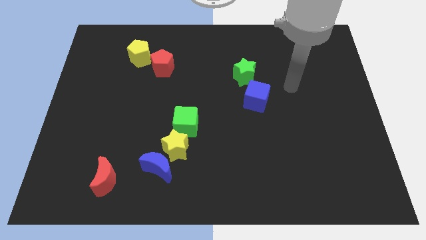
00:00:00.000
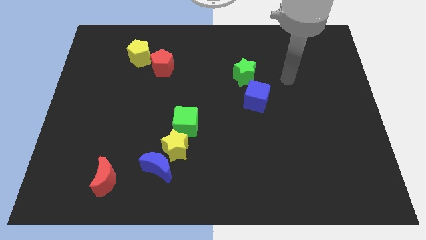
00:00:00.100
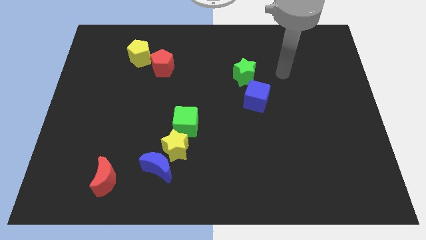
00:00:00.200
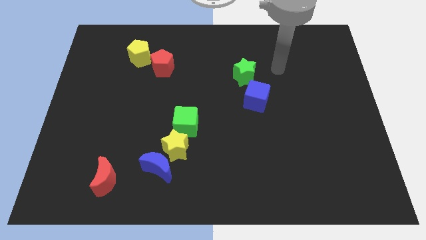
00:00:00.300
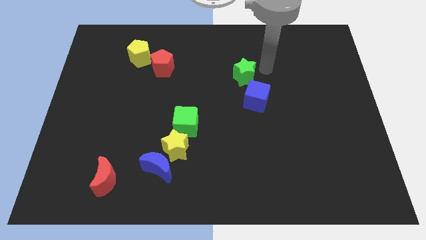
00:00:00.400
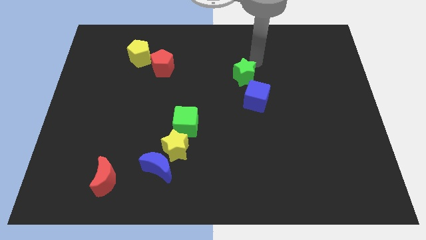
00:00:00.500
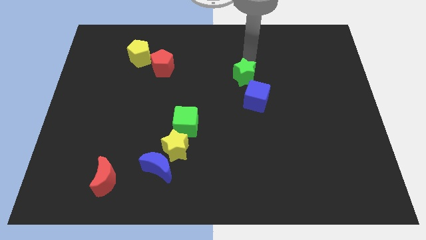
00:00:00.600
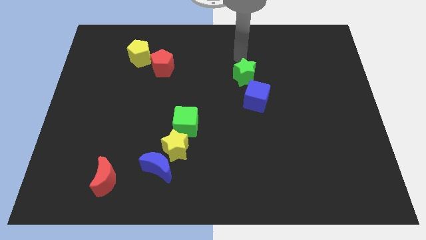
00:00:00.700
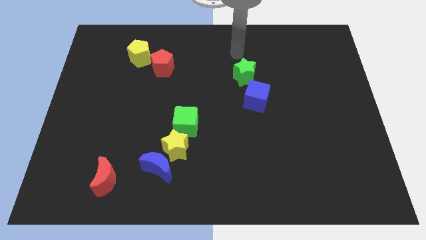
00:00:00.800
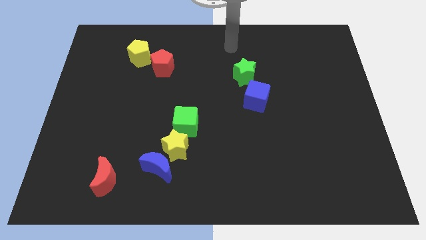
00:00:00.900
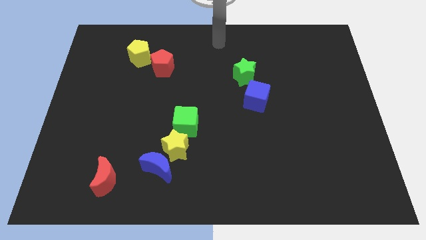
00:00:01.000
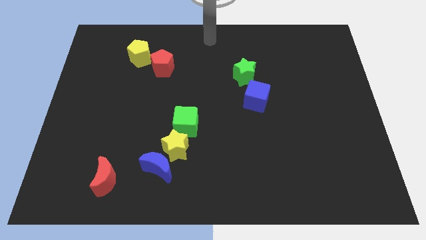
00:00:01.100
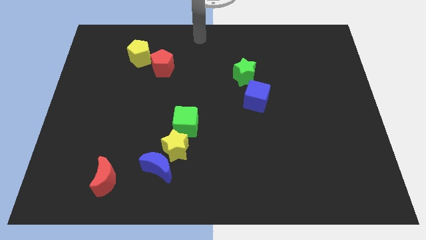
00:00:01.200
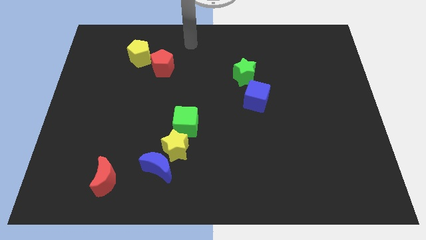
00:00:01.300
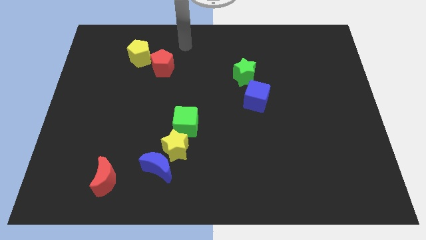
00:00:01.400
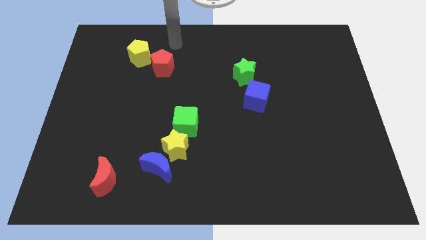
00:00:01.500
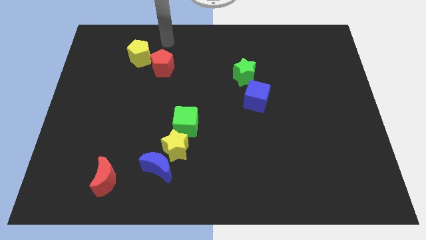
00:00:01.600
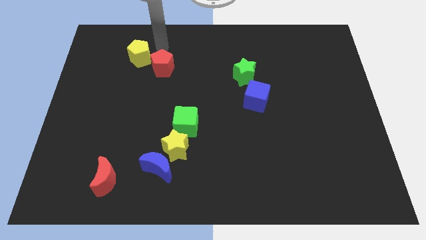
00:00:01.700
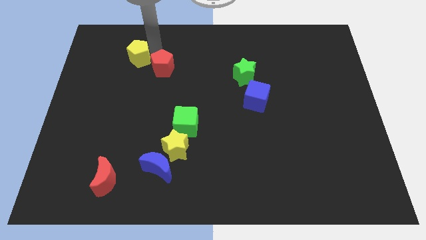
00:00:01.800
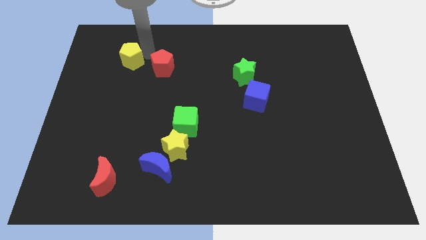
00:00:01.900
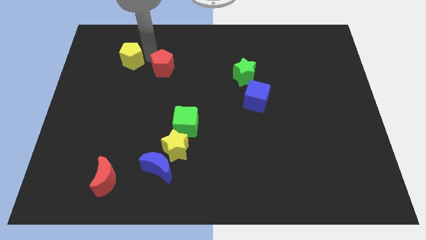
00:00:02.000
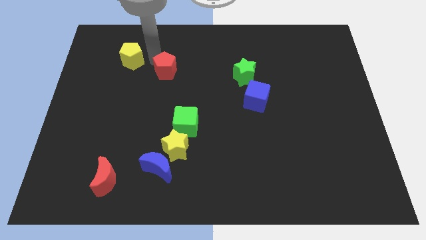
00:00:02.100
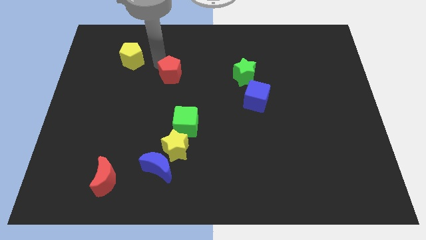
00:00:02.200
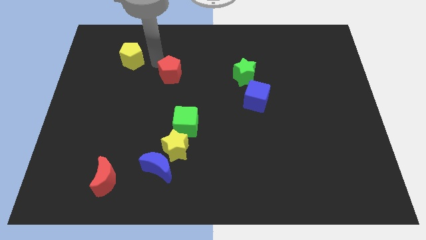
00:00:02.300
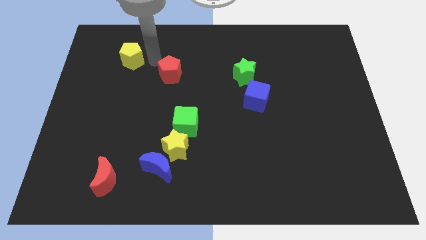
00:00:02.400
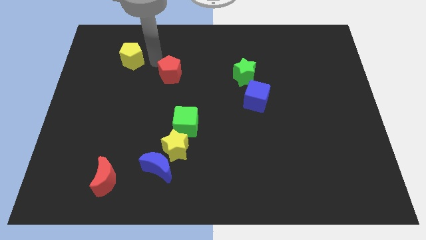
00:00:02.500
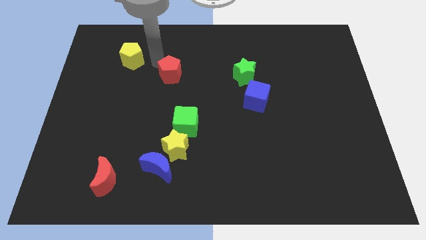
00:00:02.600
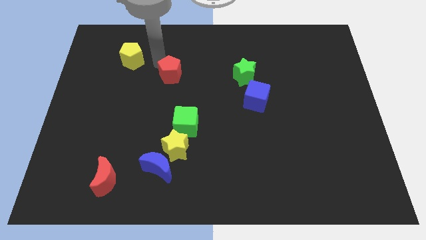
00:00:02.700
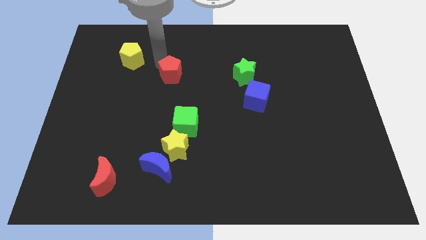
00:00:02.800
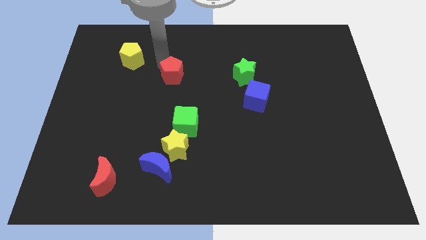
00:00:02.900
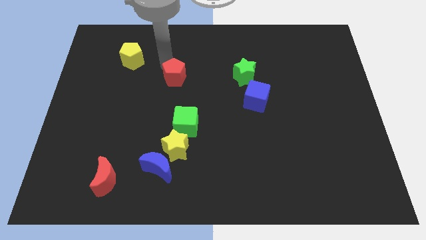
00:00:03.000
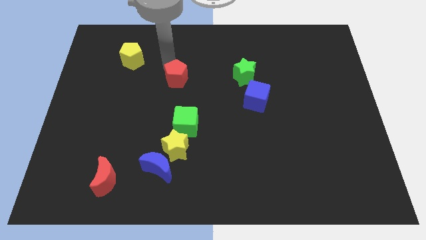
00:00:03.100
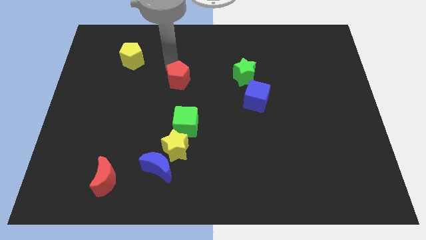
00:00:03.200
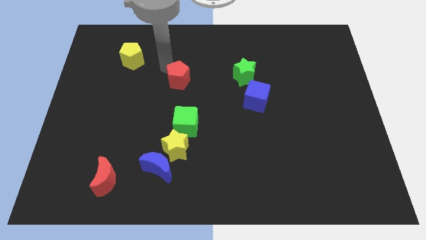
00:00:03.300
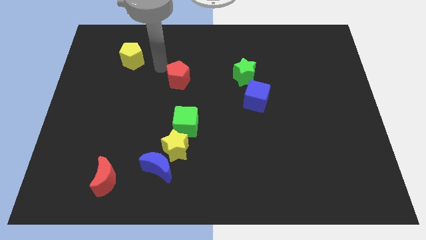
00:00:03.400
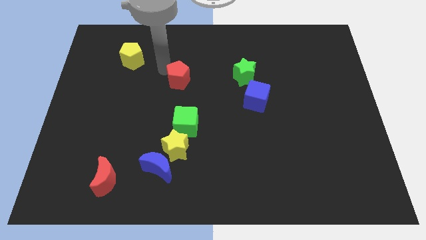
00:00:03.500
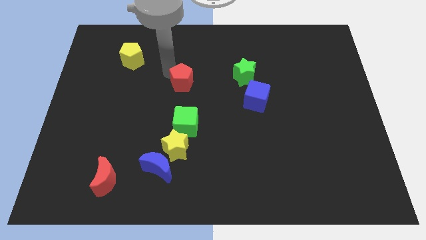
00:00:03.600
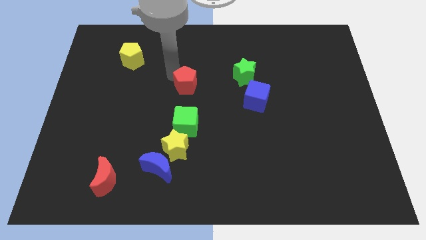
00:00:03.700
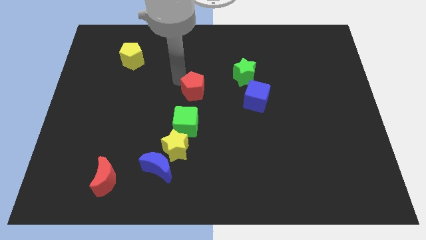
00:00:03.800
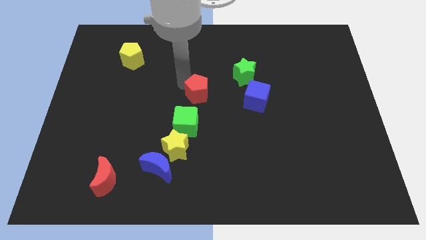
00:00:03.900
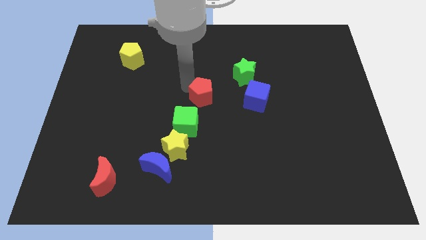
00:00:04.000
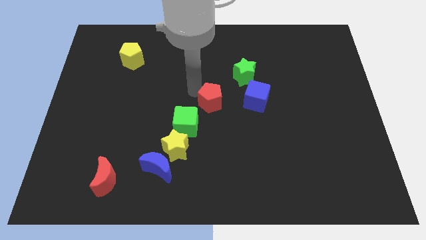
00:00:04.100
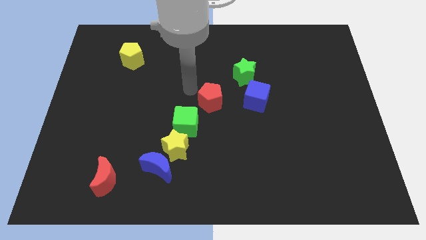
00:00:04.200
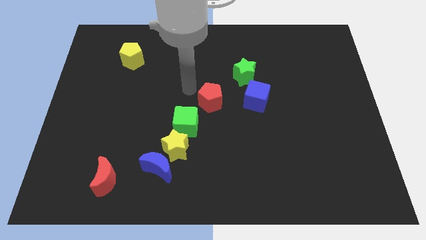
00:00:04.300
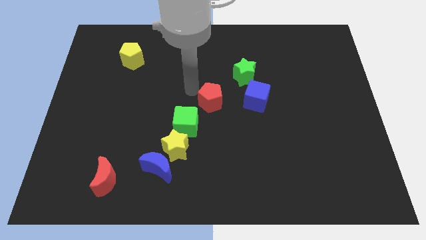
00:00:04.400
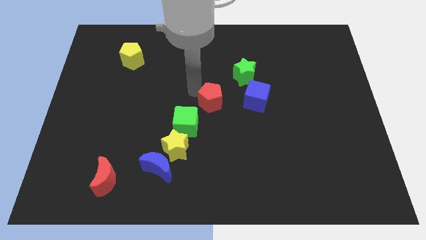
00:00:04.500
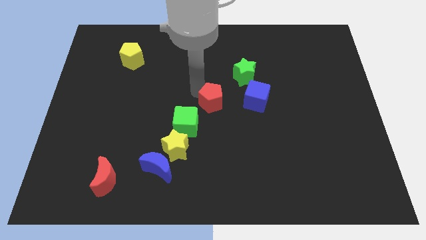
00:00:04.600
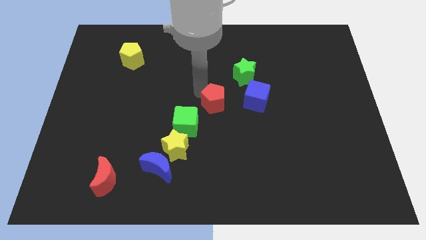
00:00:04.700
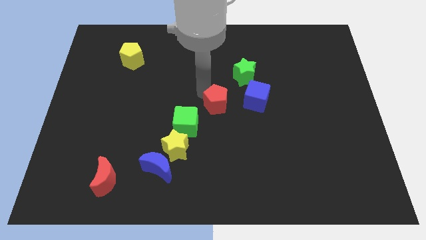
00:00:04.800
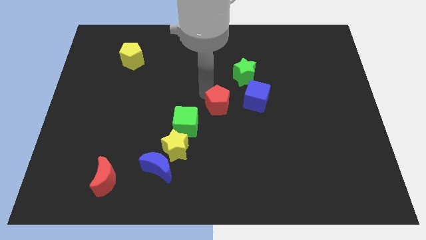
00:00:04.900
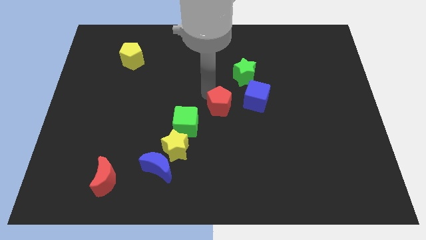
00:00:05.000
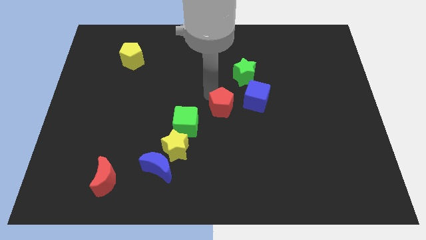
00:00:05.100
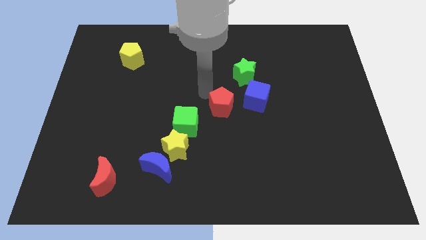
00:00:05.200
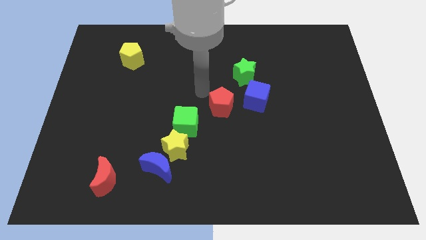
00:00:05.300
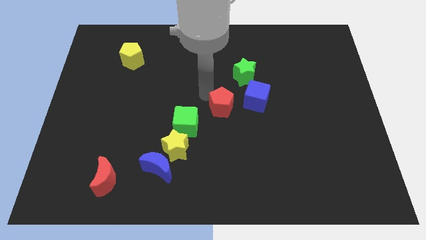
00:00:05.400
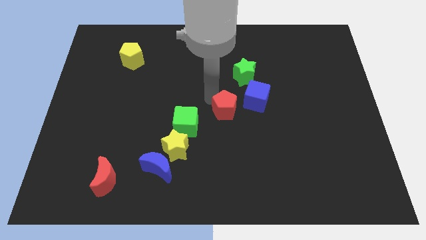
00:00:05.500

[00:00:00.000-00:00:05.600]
push the red pentagon downwards and to the right

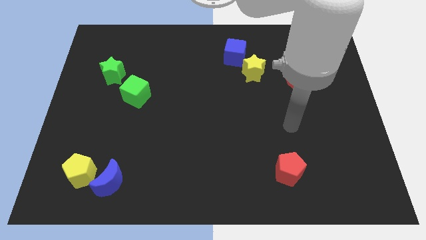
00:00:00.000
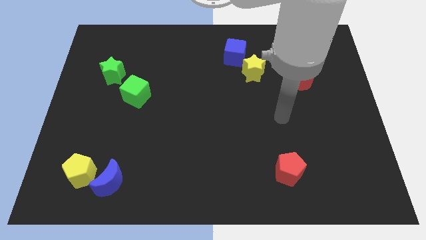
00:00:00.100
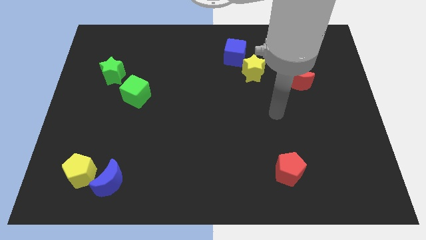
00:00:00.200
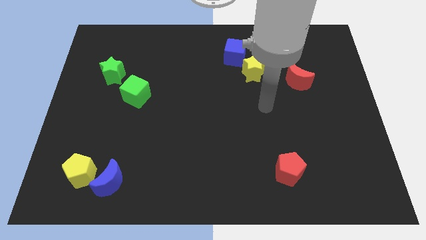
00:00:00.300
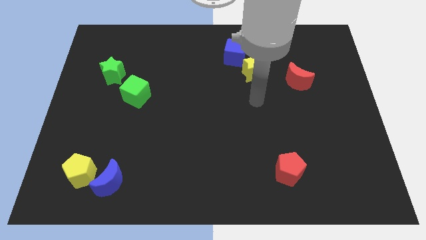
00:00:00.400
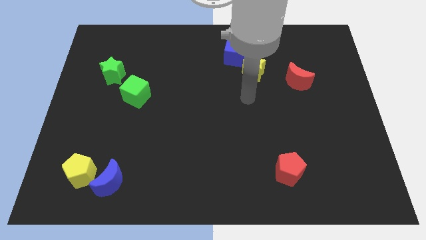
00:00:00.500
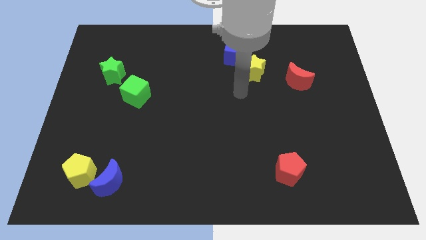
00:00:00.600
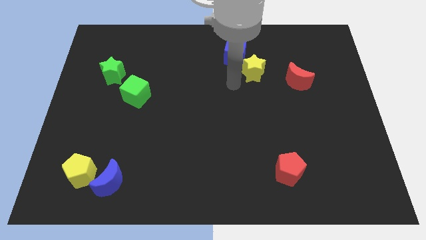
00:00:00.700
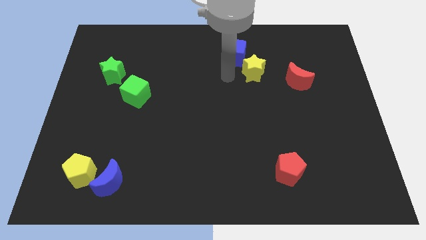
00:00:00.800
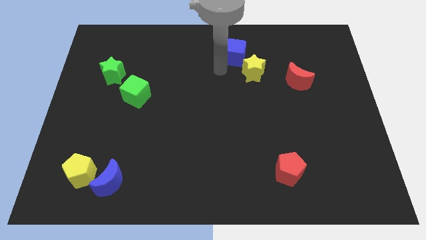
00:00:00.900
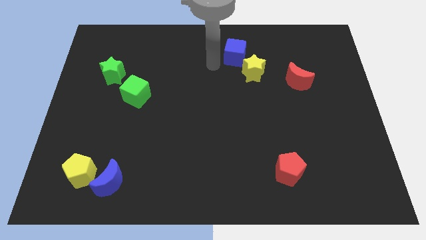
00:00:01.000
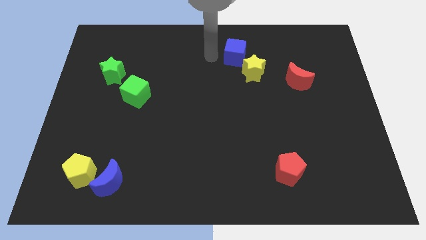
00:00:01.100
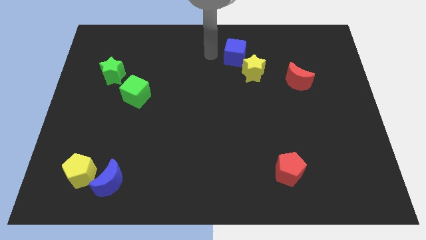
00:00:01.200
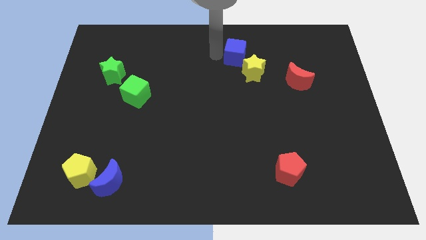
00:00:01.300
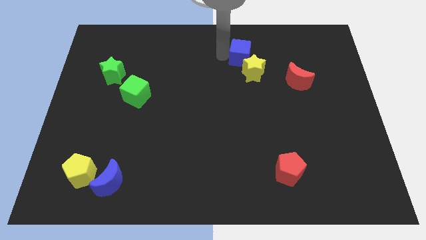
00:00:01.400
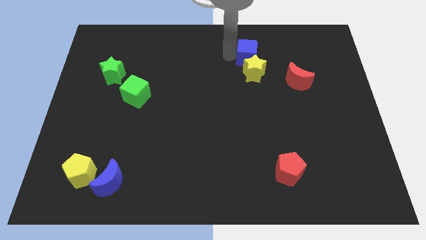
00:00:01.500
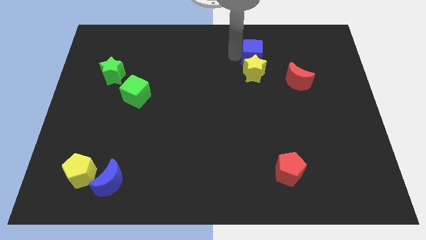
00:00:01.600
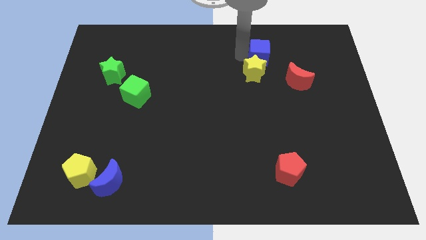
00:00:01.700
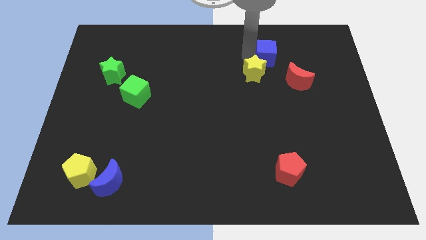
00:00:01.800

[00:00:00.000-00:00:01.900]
slightly move the blue cube right

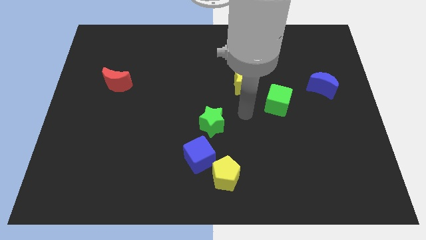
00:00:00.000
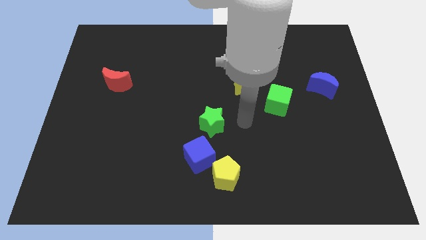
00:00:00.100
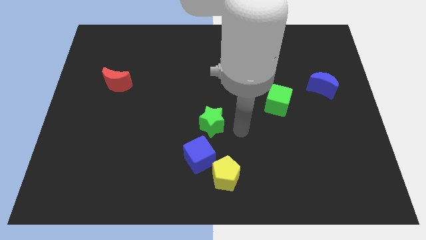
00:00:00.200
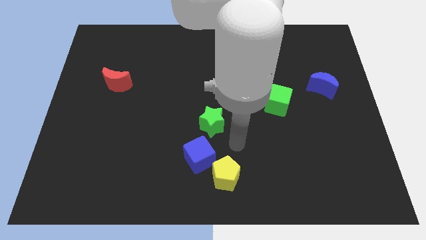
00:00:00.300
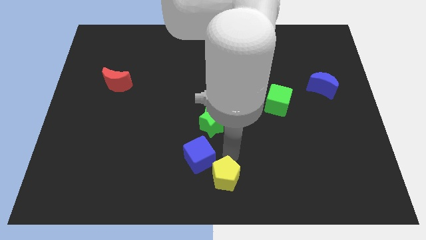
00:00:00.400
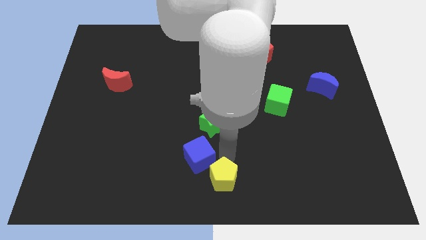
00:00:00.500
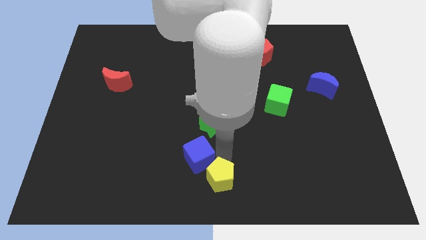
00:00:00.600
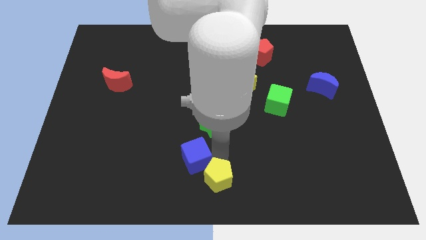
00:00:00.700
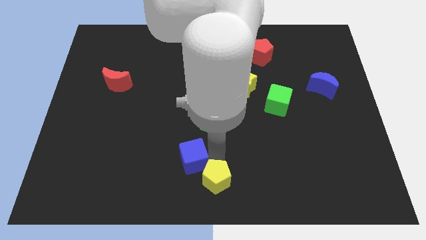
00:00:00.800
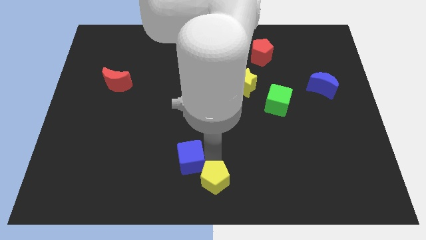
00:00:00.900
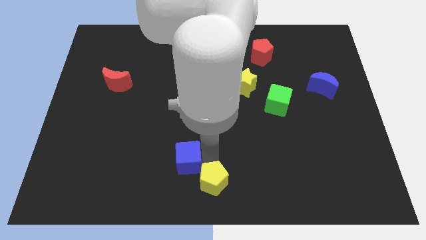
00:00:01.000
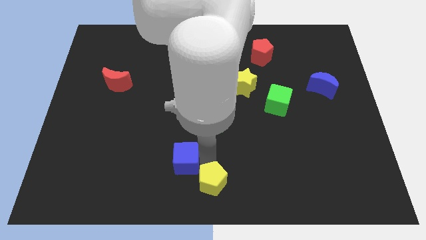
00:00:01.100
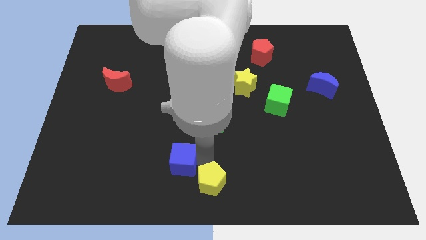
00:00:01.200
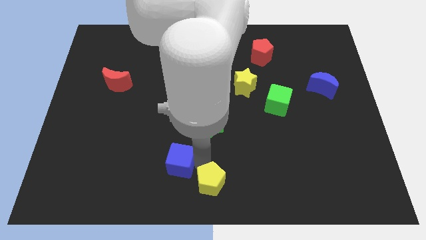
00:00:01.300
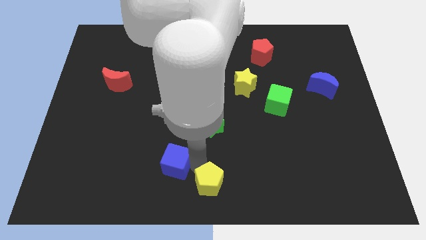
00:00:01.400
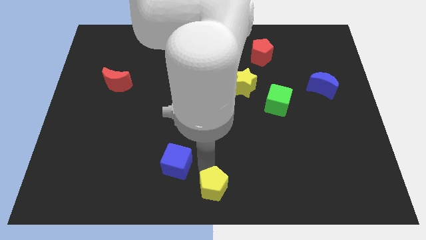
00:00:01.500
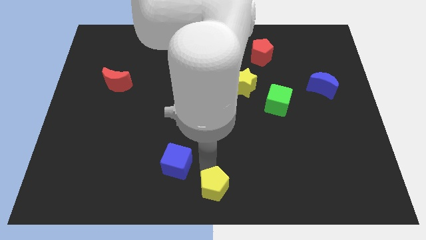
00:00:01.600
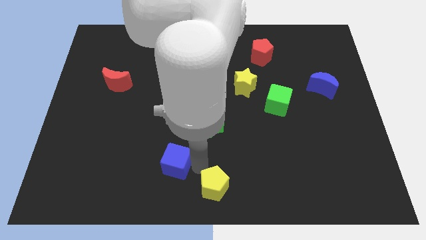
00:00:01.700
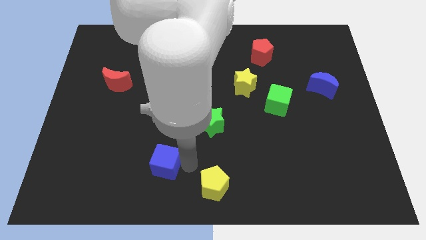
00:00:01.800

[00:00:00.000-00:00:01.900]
move the blue cube left slightly
